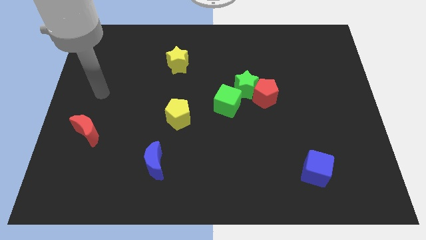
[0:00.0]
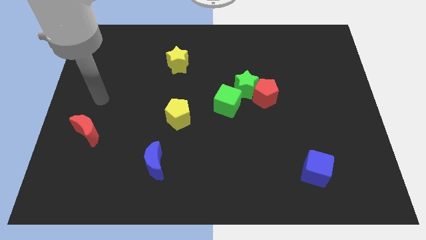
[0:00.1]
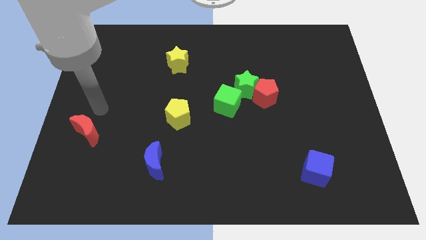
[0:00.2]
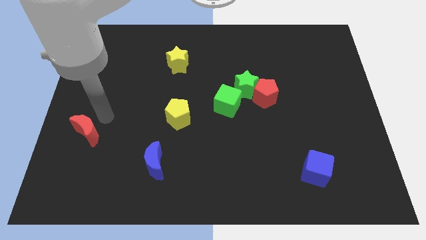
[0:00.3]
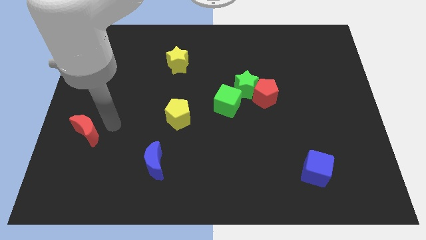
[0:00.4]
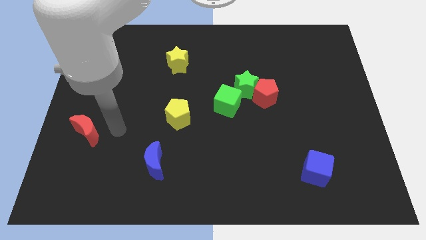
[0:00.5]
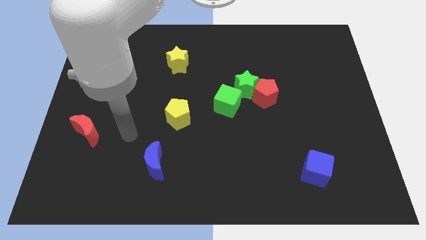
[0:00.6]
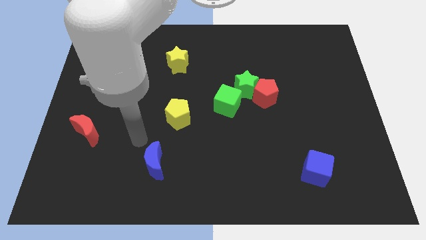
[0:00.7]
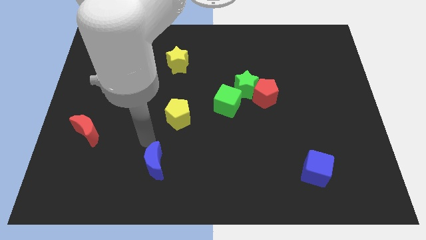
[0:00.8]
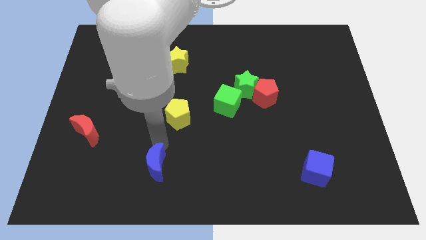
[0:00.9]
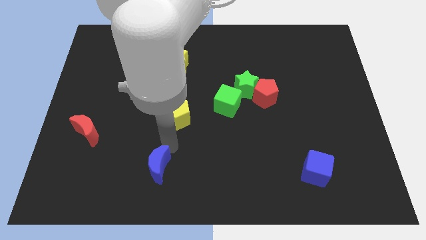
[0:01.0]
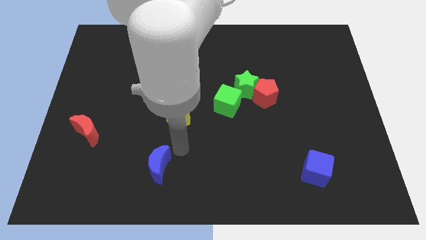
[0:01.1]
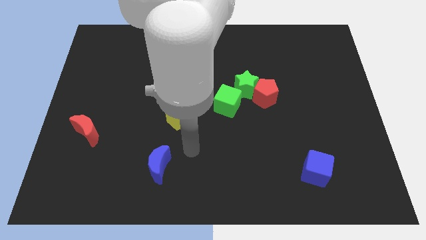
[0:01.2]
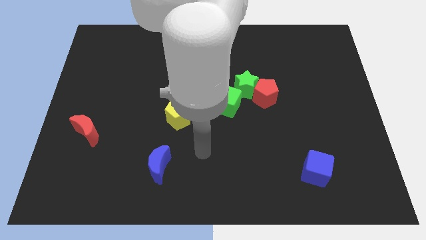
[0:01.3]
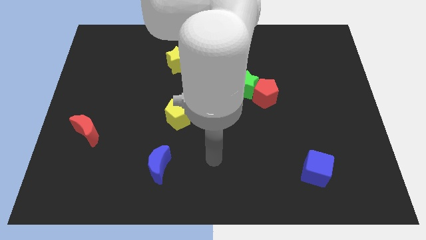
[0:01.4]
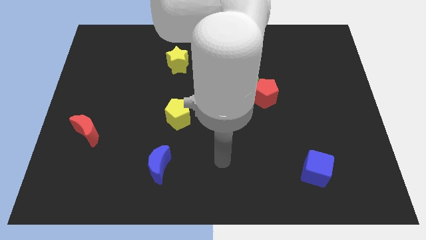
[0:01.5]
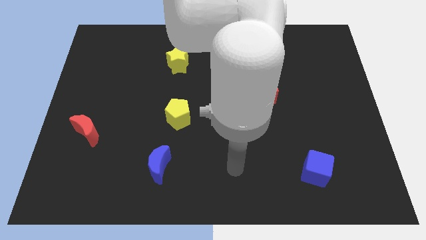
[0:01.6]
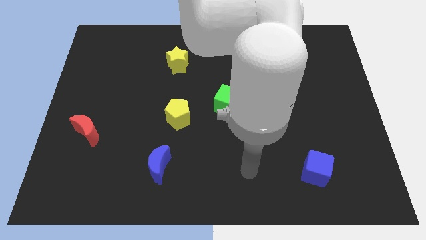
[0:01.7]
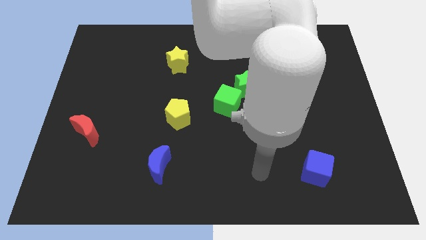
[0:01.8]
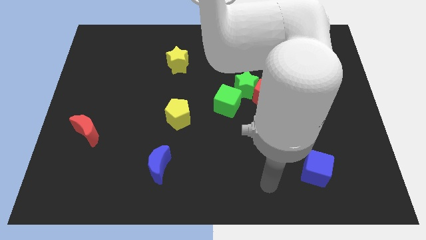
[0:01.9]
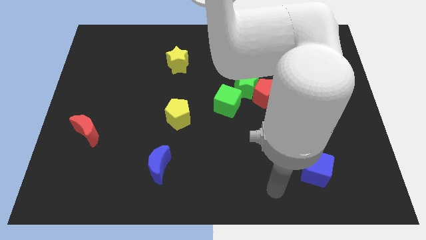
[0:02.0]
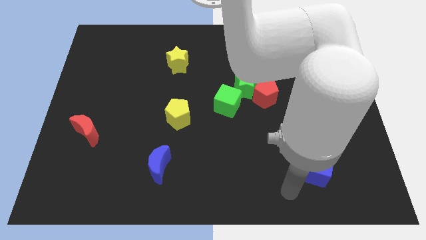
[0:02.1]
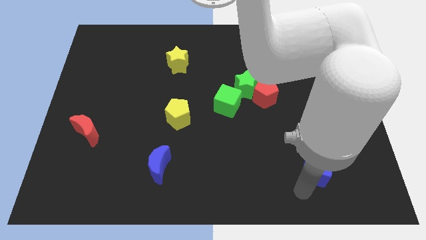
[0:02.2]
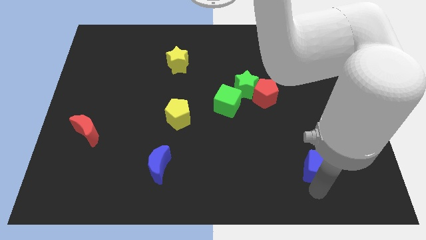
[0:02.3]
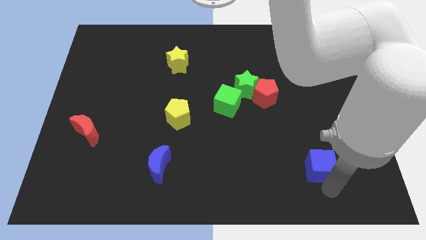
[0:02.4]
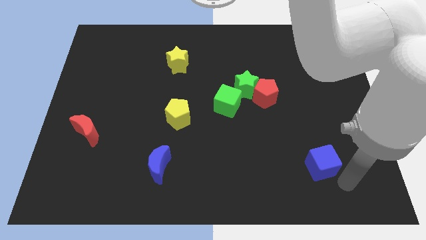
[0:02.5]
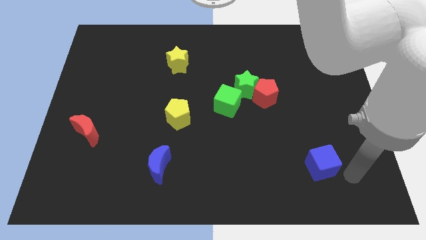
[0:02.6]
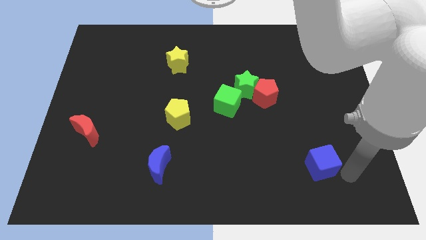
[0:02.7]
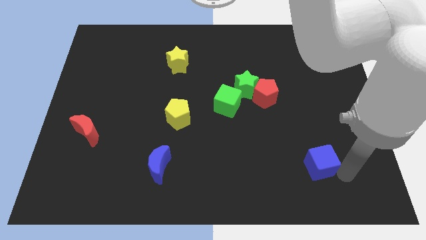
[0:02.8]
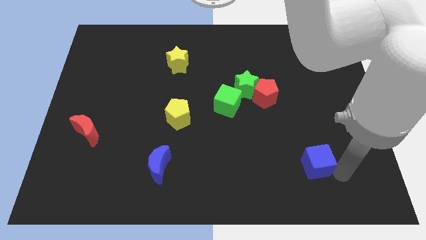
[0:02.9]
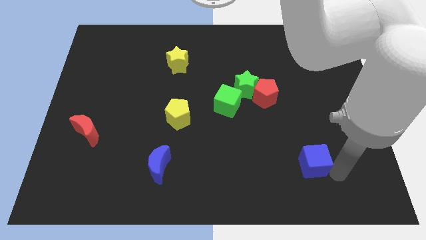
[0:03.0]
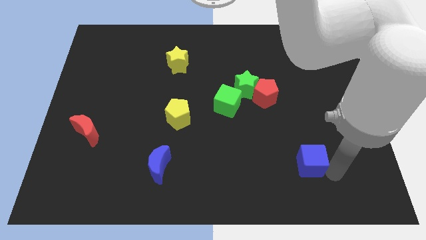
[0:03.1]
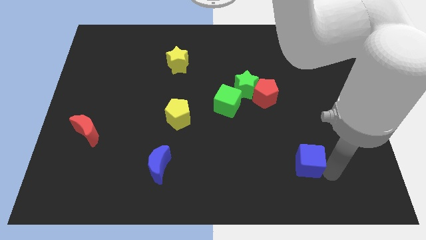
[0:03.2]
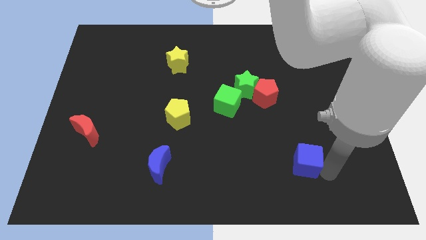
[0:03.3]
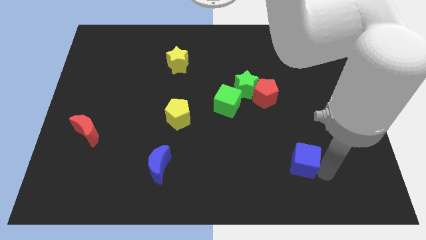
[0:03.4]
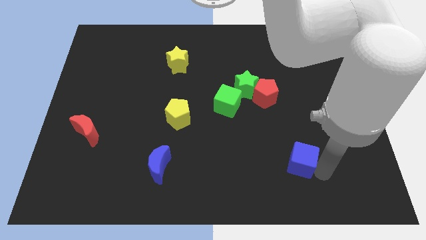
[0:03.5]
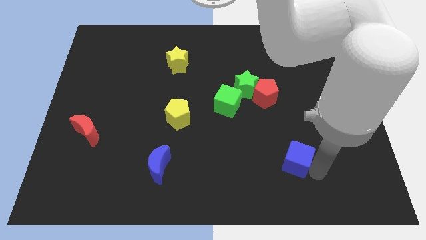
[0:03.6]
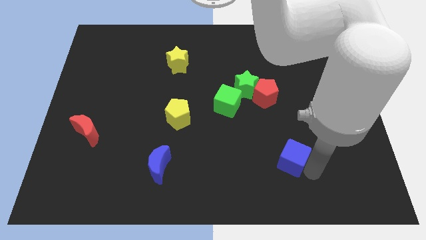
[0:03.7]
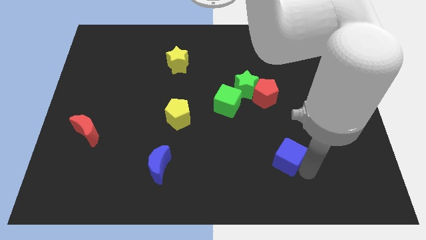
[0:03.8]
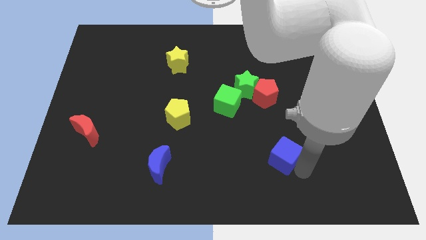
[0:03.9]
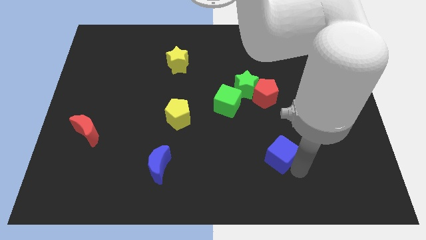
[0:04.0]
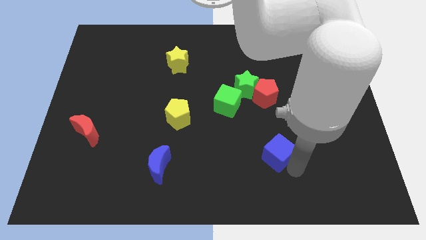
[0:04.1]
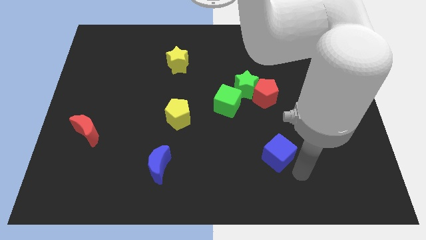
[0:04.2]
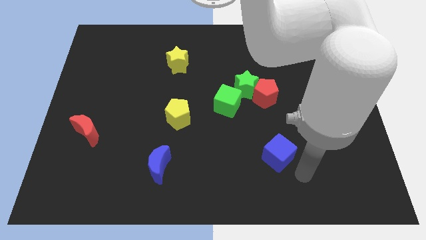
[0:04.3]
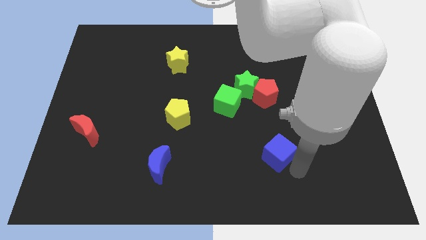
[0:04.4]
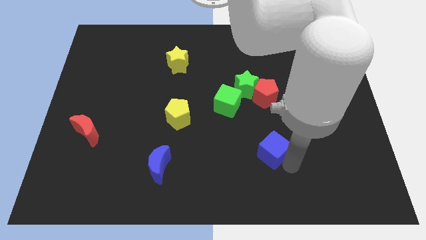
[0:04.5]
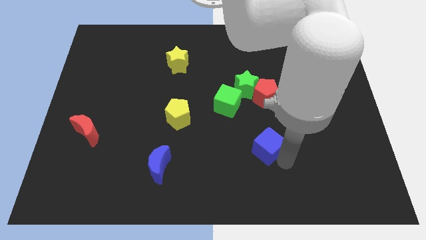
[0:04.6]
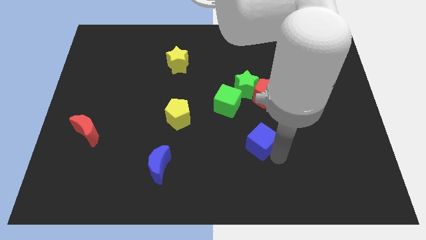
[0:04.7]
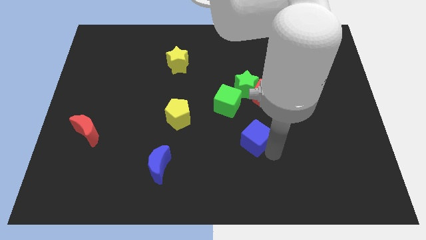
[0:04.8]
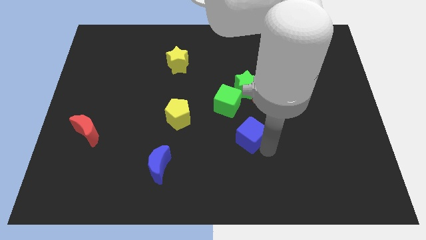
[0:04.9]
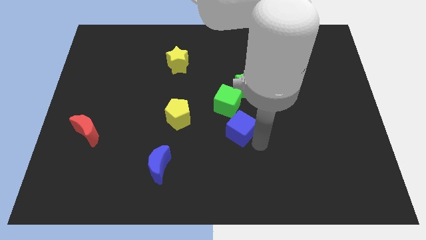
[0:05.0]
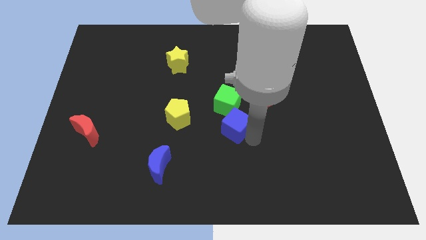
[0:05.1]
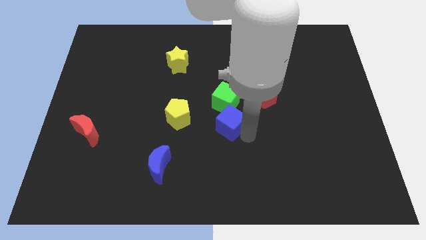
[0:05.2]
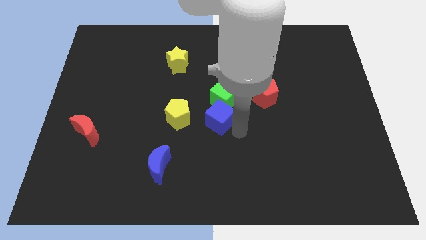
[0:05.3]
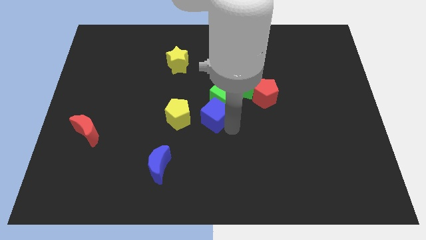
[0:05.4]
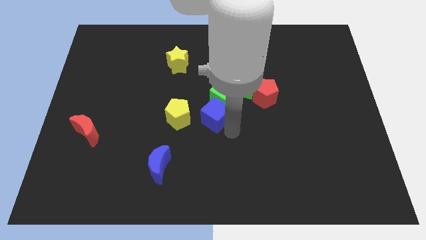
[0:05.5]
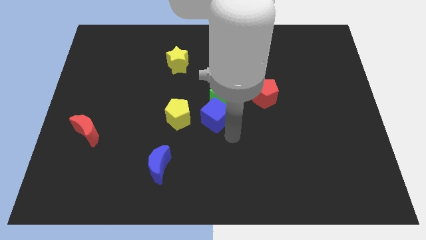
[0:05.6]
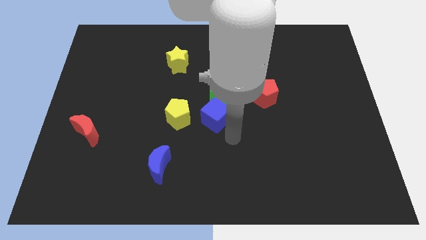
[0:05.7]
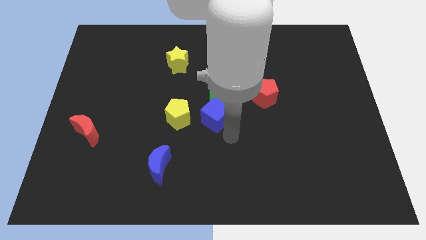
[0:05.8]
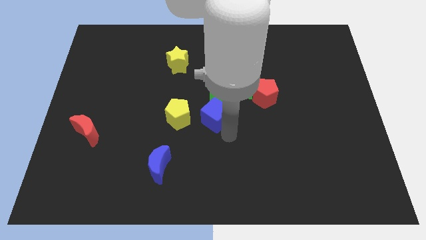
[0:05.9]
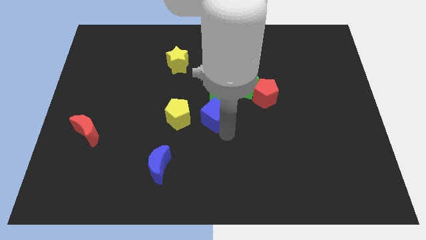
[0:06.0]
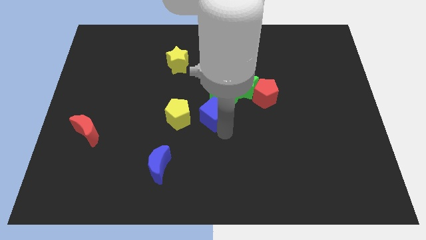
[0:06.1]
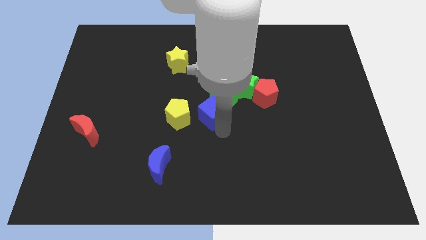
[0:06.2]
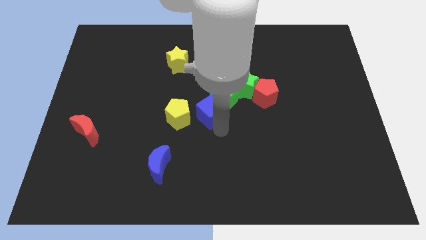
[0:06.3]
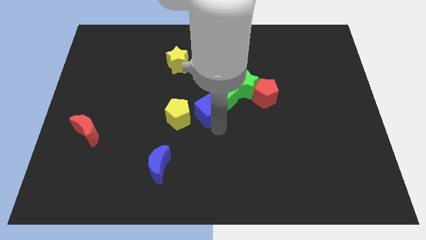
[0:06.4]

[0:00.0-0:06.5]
push the blue cube just left of the green cube

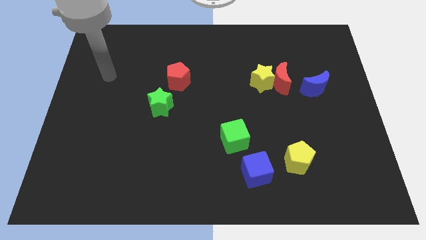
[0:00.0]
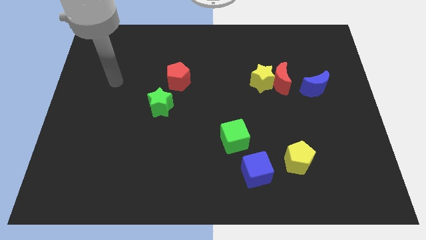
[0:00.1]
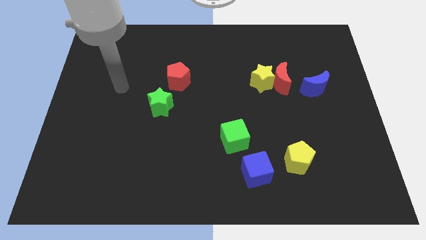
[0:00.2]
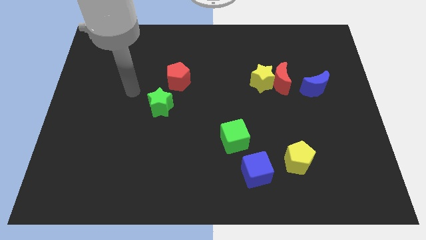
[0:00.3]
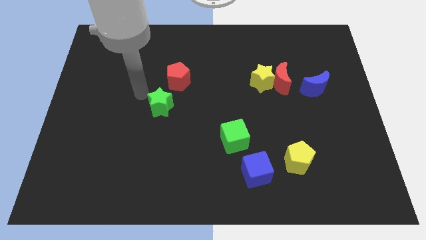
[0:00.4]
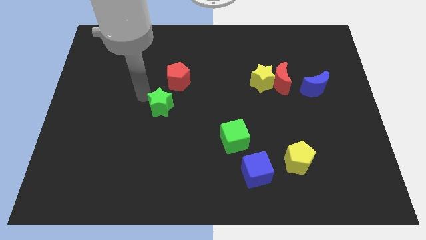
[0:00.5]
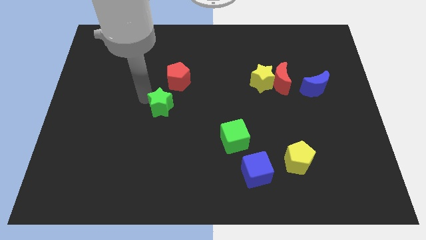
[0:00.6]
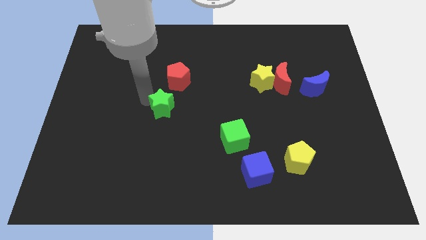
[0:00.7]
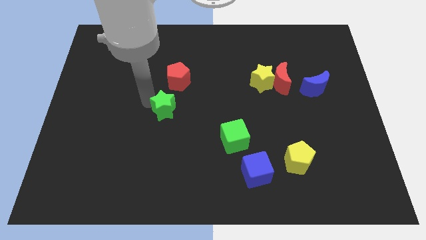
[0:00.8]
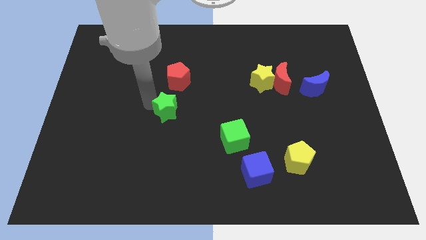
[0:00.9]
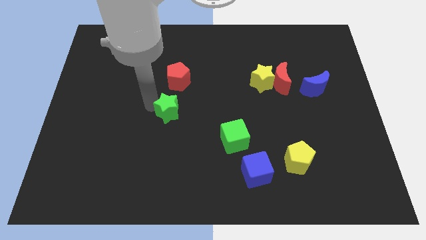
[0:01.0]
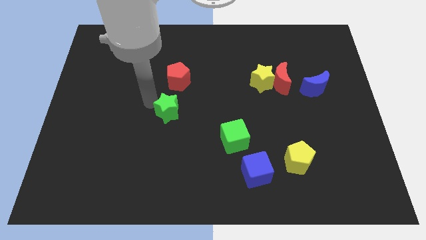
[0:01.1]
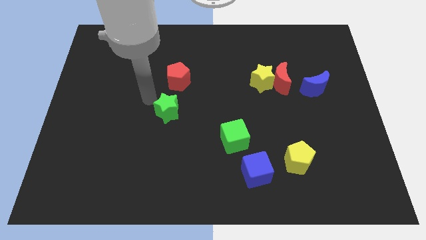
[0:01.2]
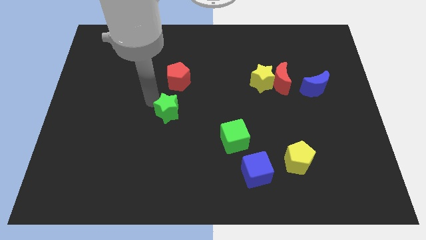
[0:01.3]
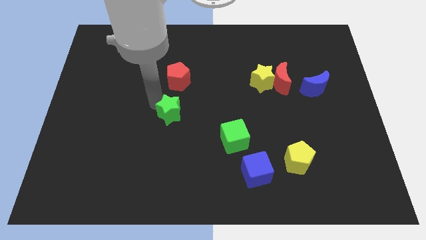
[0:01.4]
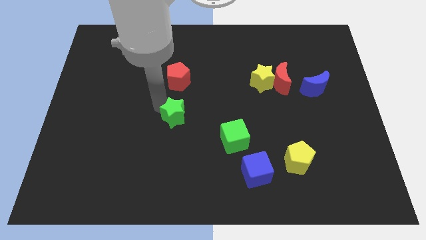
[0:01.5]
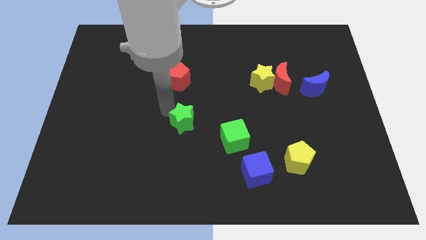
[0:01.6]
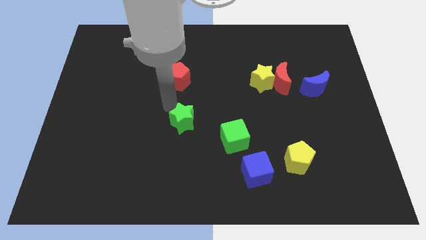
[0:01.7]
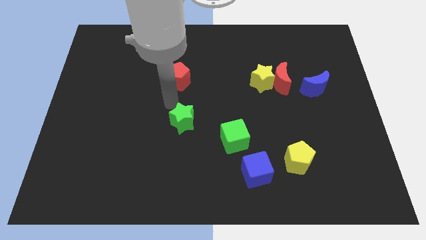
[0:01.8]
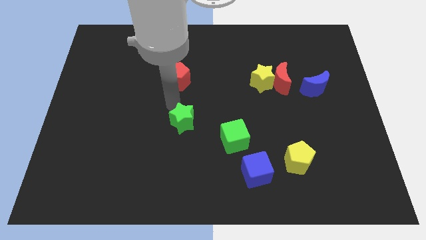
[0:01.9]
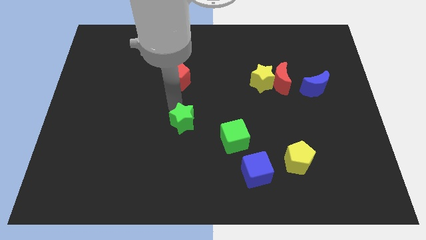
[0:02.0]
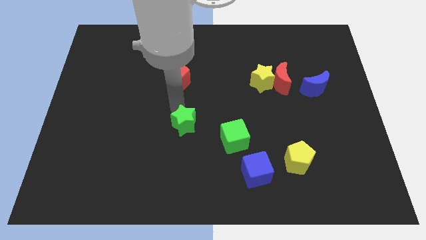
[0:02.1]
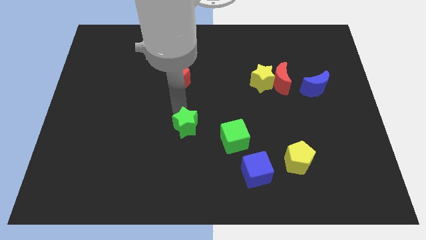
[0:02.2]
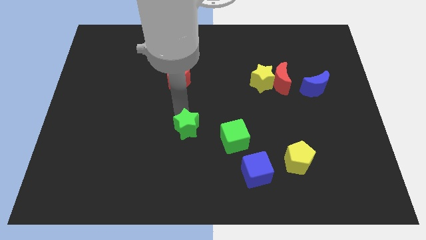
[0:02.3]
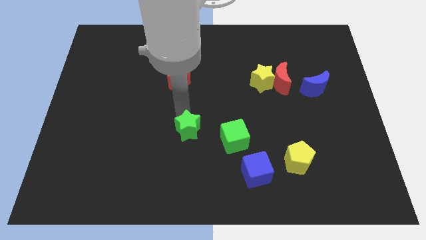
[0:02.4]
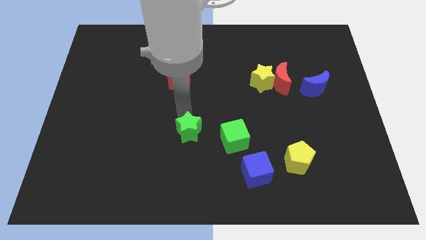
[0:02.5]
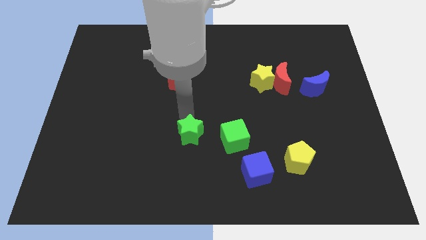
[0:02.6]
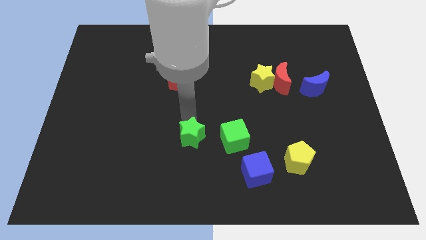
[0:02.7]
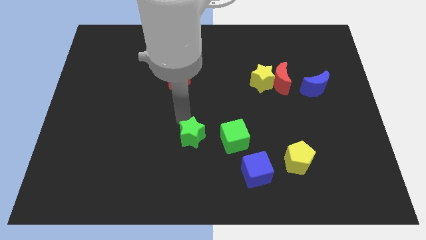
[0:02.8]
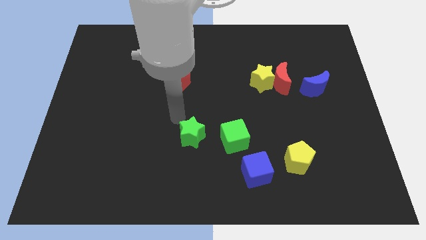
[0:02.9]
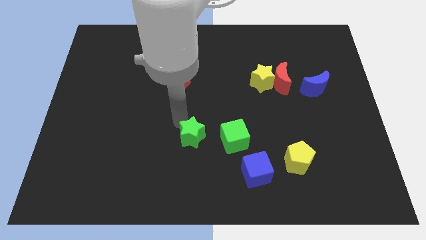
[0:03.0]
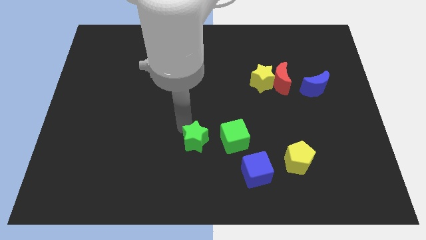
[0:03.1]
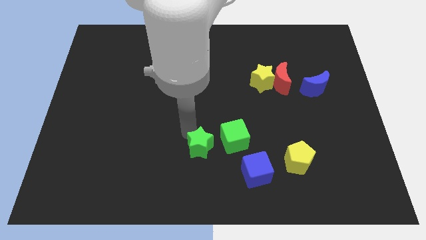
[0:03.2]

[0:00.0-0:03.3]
push the green star to the bottom left side of the green cube
